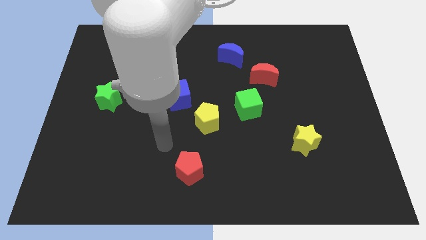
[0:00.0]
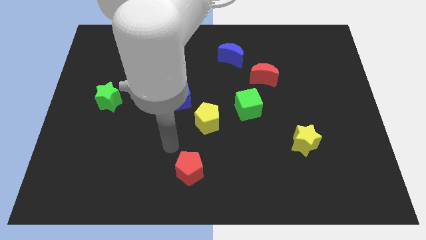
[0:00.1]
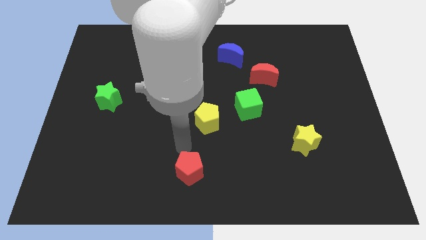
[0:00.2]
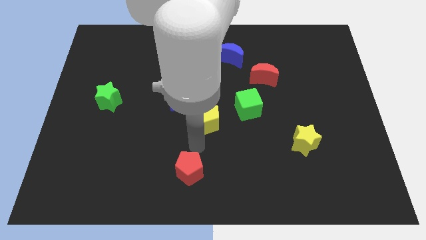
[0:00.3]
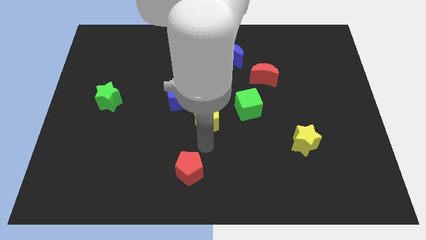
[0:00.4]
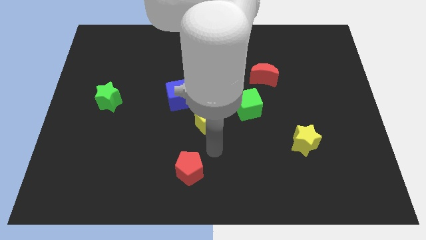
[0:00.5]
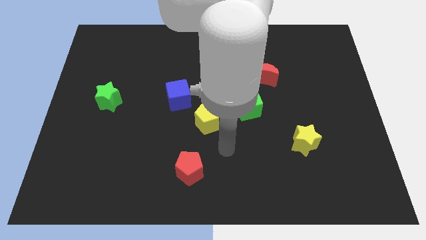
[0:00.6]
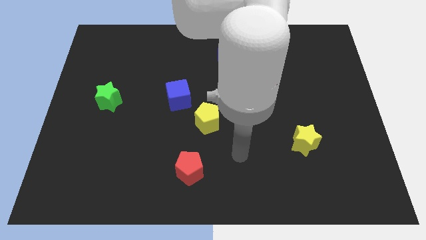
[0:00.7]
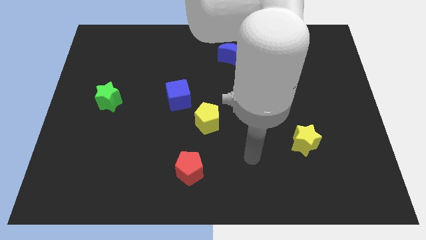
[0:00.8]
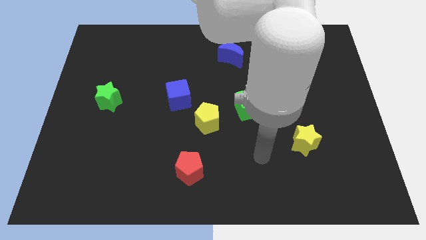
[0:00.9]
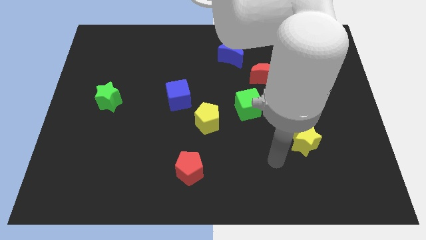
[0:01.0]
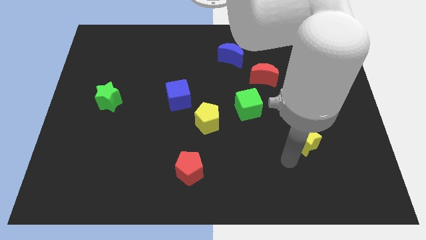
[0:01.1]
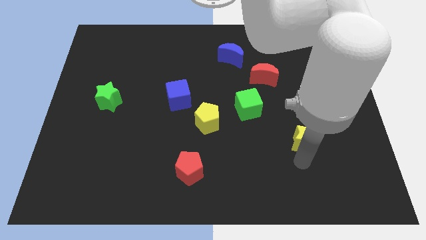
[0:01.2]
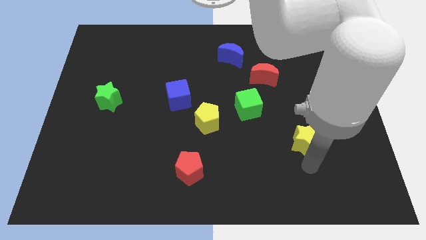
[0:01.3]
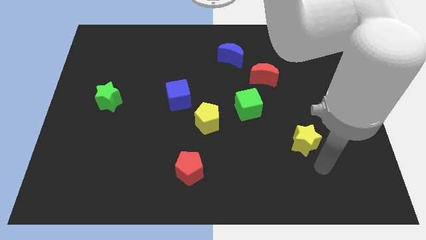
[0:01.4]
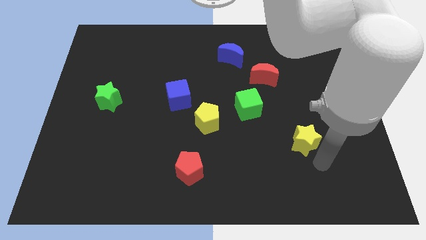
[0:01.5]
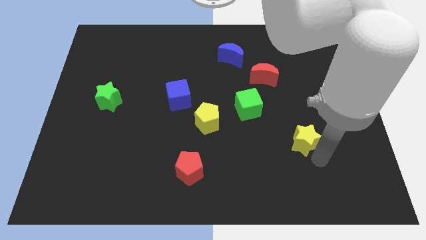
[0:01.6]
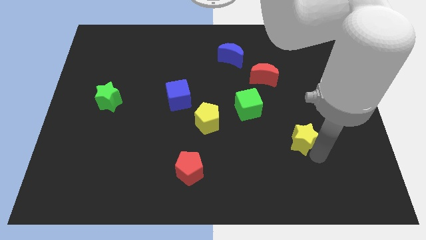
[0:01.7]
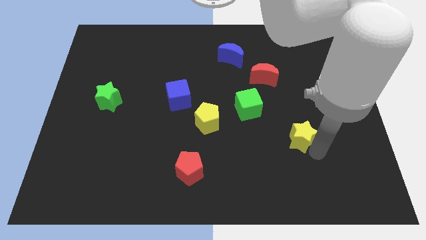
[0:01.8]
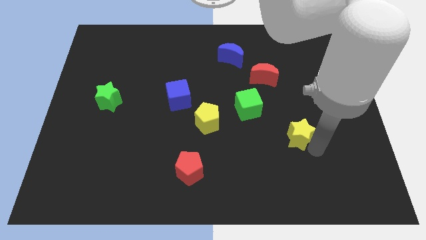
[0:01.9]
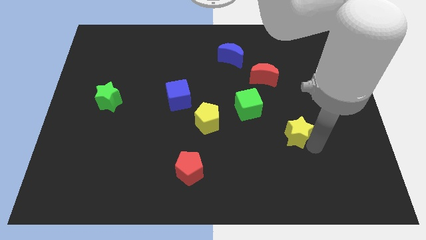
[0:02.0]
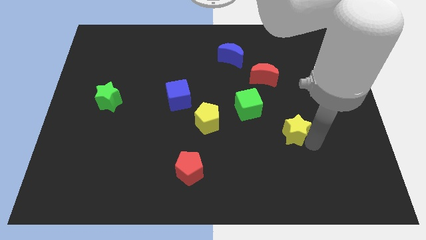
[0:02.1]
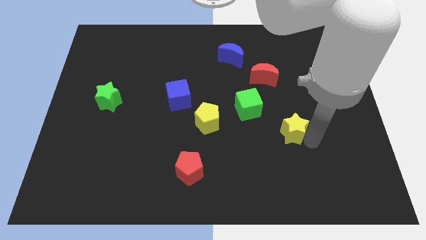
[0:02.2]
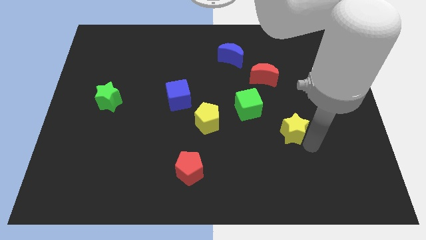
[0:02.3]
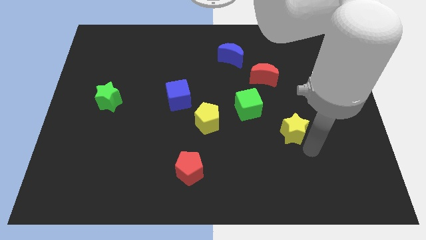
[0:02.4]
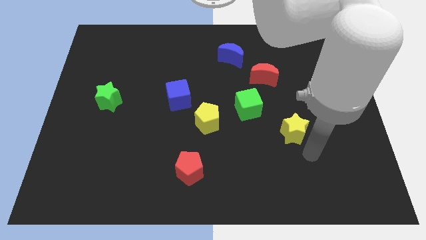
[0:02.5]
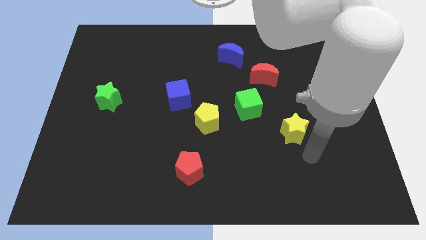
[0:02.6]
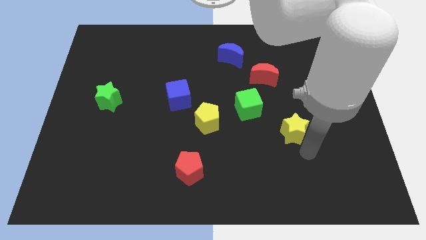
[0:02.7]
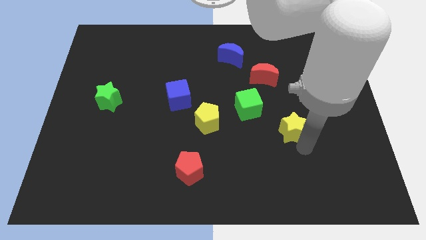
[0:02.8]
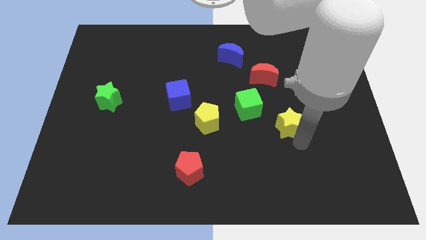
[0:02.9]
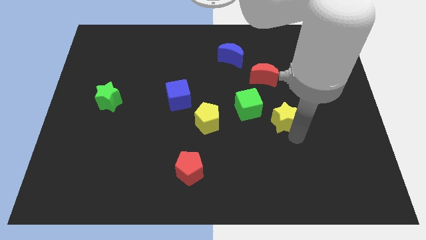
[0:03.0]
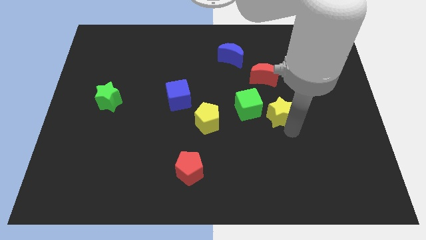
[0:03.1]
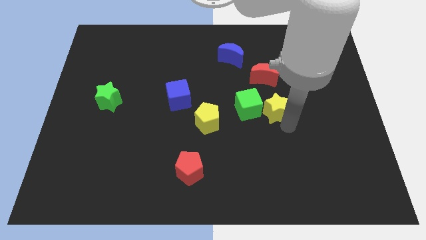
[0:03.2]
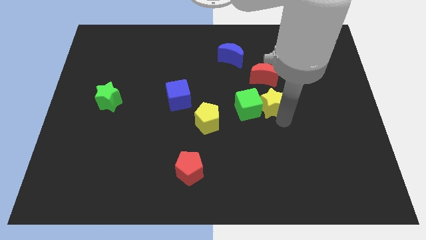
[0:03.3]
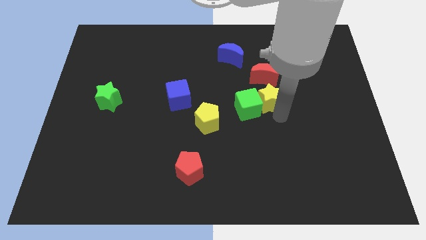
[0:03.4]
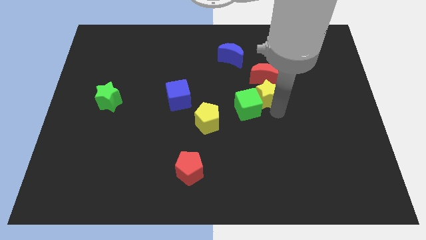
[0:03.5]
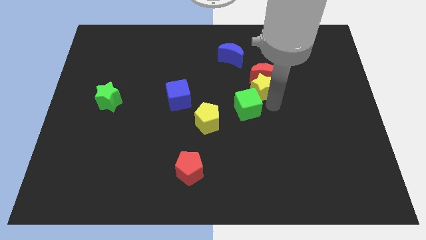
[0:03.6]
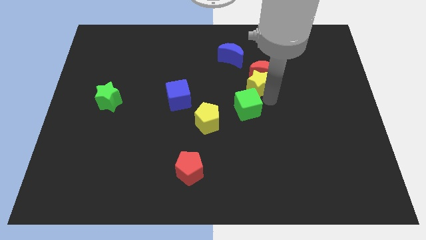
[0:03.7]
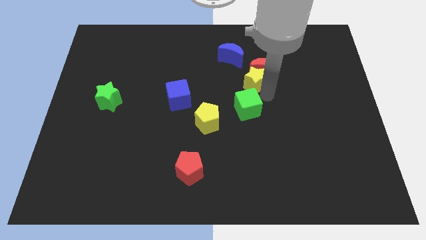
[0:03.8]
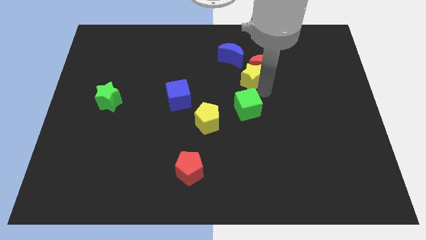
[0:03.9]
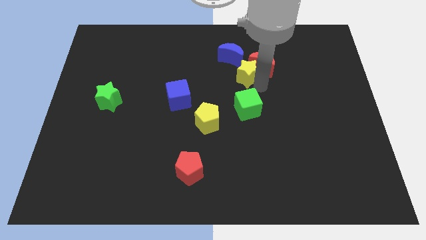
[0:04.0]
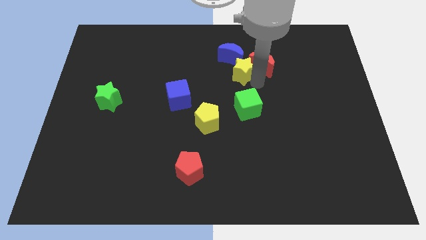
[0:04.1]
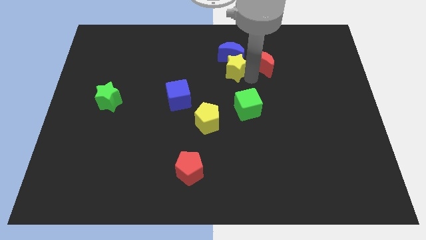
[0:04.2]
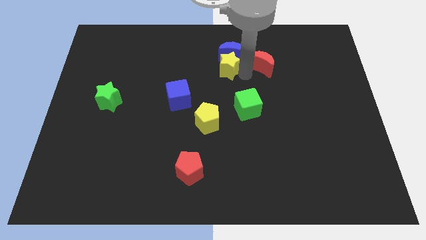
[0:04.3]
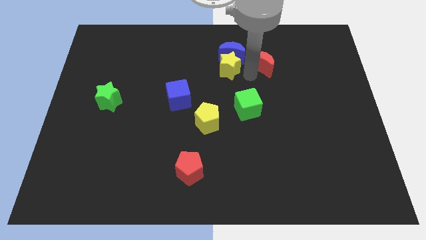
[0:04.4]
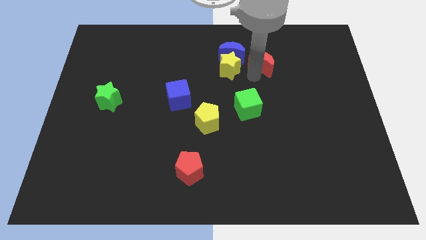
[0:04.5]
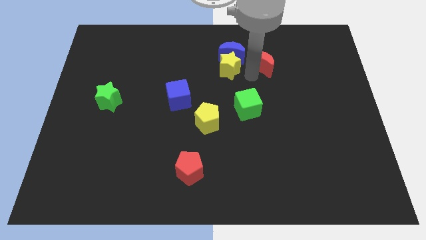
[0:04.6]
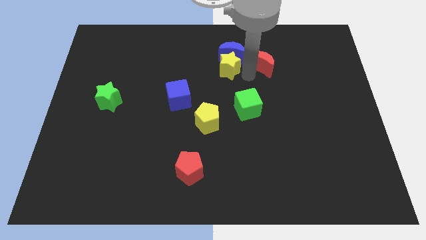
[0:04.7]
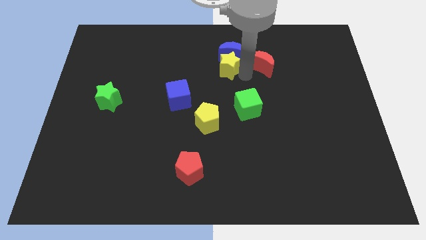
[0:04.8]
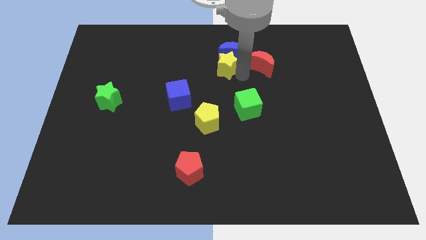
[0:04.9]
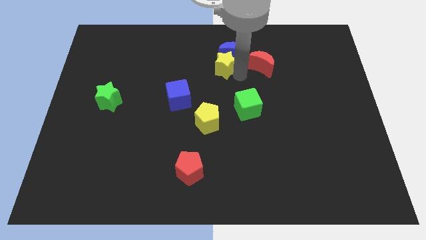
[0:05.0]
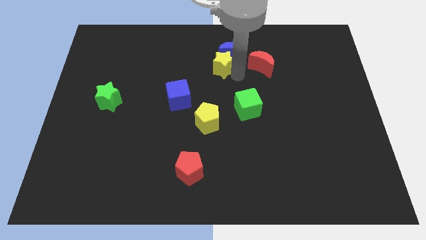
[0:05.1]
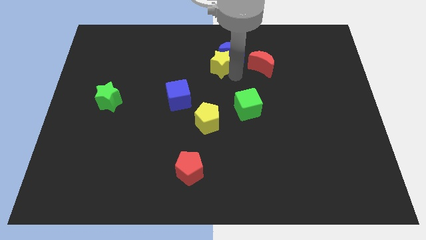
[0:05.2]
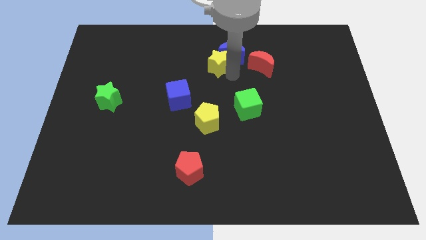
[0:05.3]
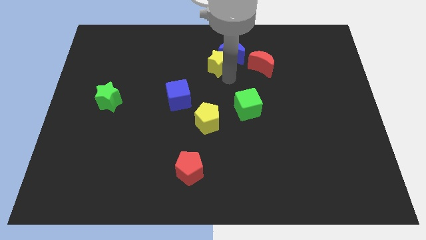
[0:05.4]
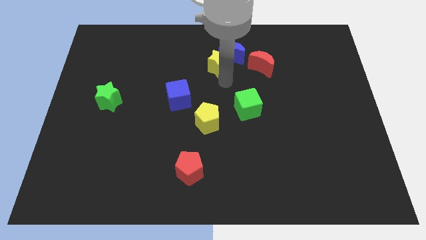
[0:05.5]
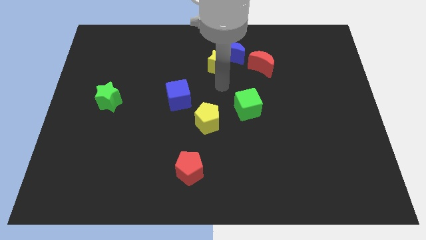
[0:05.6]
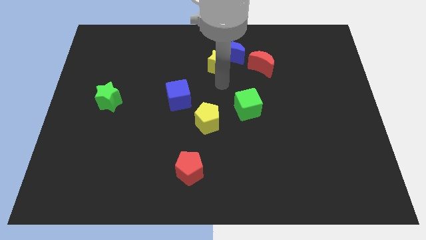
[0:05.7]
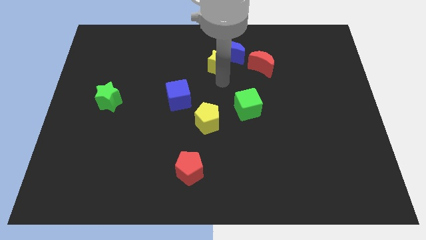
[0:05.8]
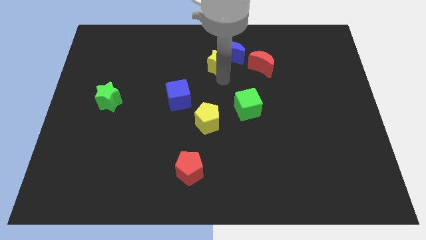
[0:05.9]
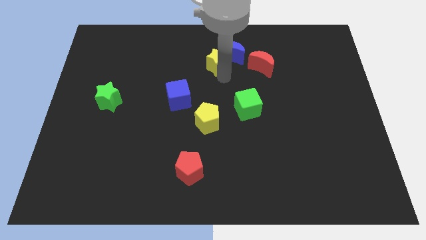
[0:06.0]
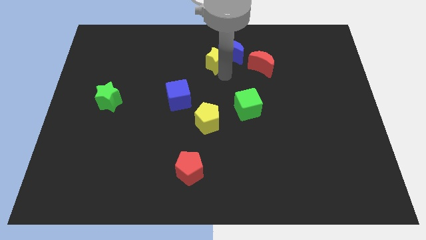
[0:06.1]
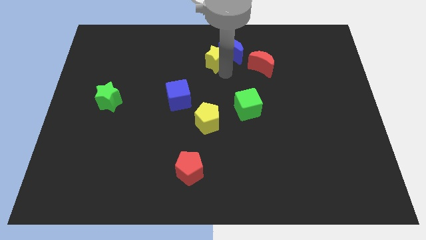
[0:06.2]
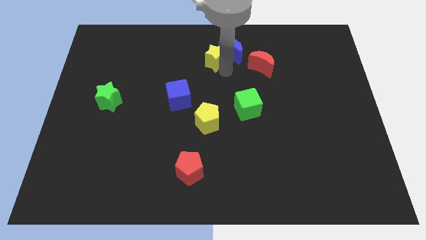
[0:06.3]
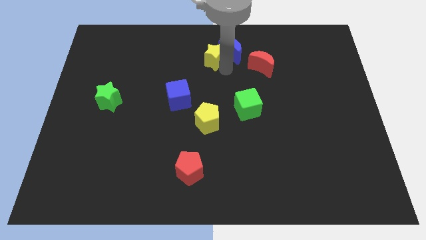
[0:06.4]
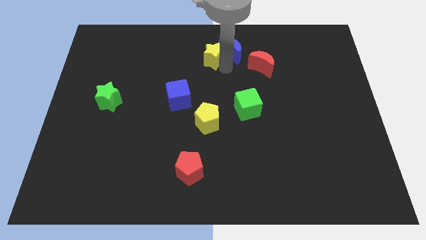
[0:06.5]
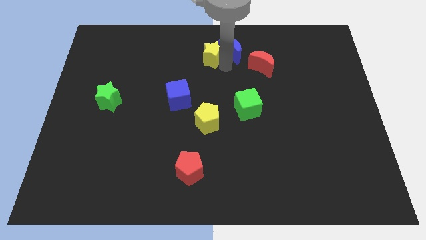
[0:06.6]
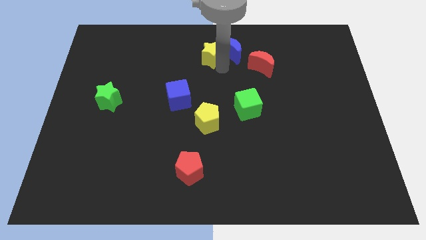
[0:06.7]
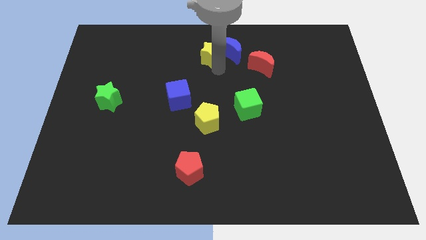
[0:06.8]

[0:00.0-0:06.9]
push the yellow star to the top

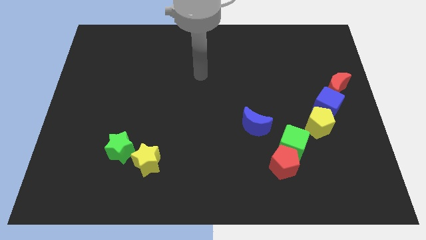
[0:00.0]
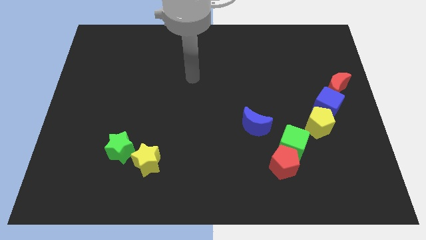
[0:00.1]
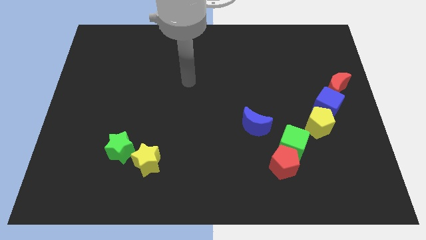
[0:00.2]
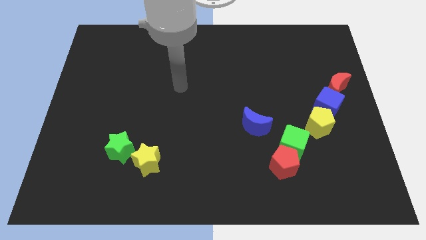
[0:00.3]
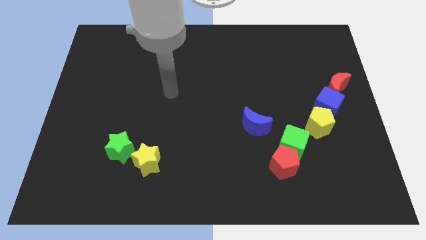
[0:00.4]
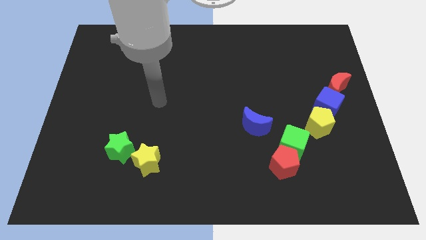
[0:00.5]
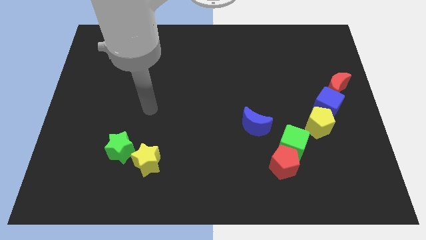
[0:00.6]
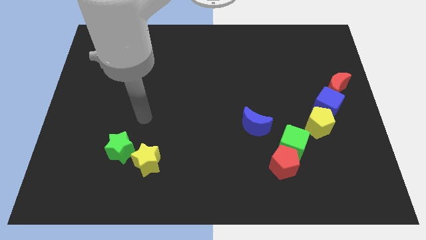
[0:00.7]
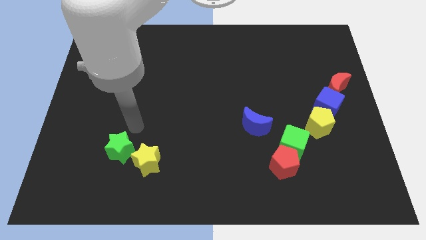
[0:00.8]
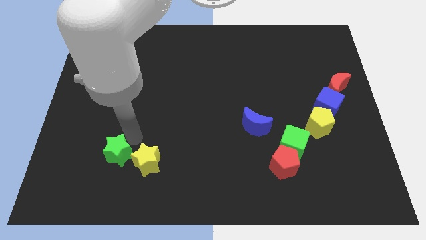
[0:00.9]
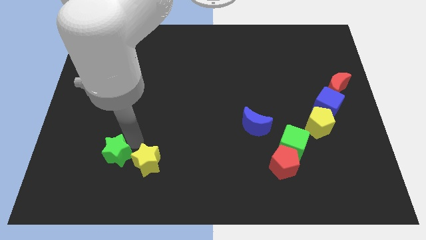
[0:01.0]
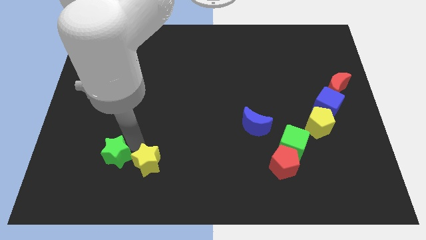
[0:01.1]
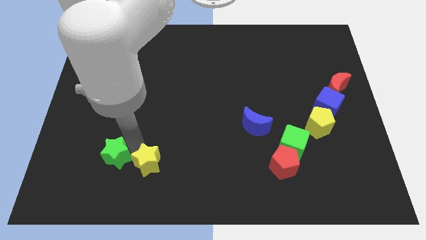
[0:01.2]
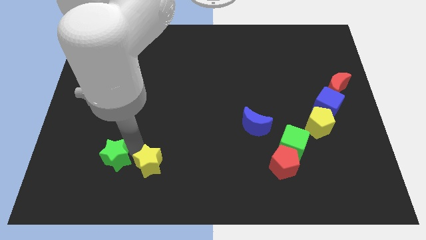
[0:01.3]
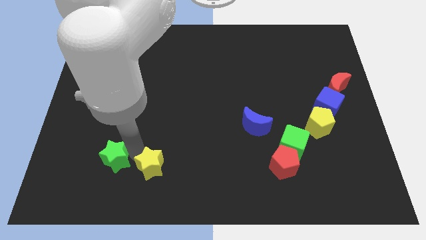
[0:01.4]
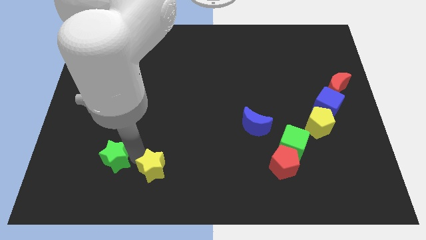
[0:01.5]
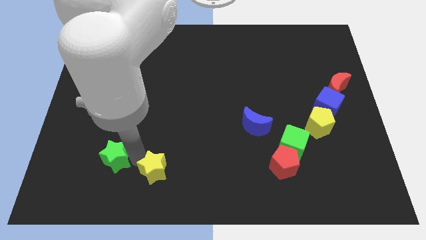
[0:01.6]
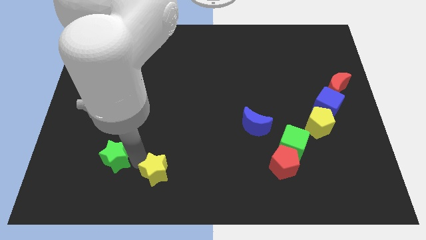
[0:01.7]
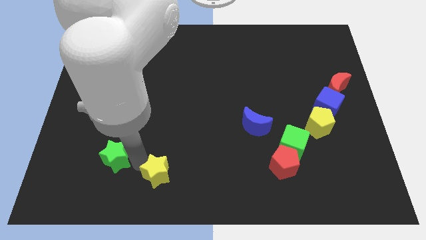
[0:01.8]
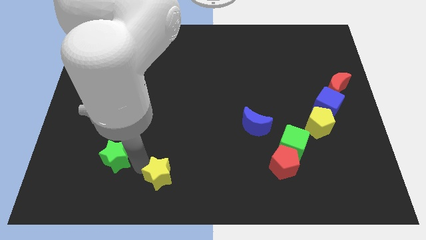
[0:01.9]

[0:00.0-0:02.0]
move the yellow star to the bottom
